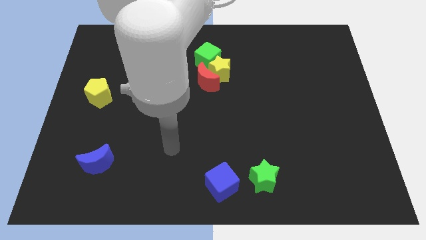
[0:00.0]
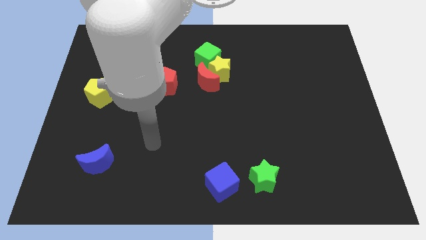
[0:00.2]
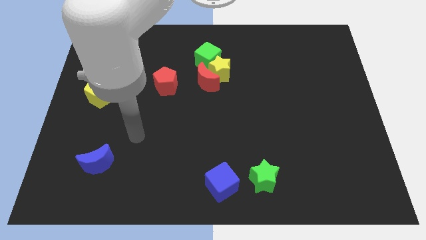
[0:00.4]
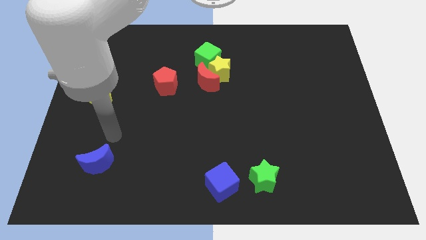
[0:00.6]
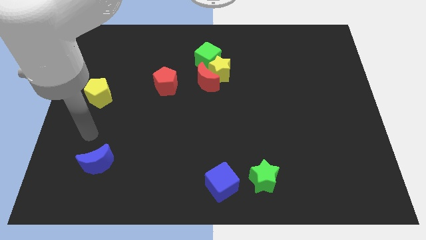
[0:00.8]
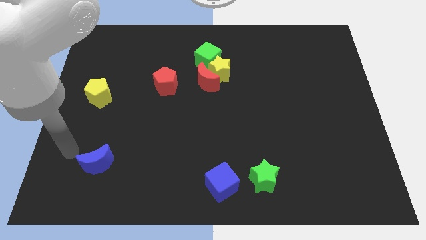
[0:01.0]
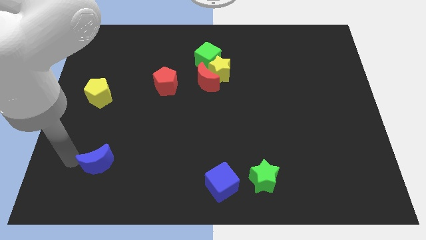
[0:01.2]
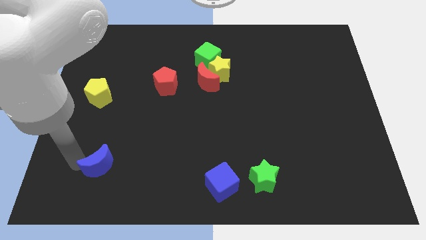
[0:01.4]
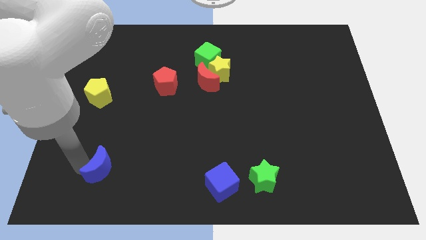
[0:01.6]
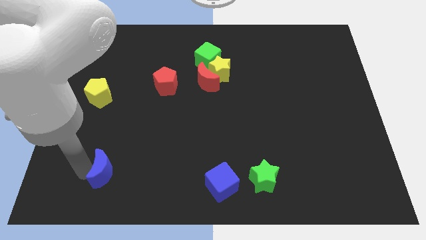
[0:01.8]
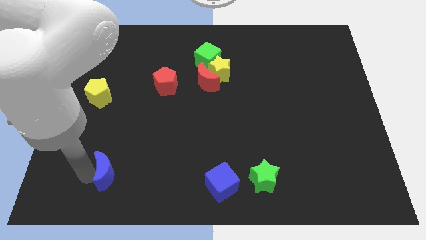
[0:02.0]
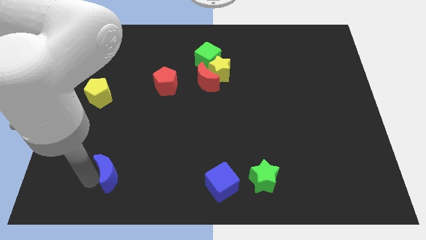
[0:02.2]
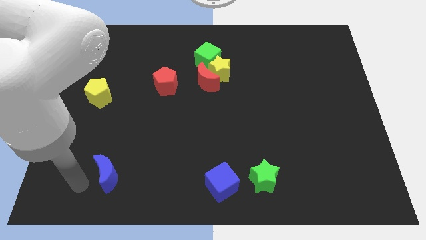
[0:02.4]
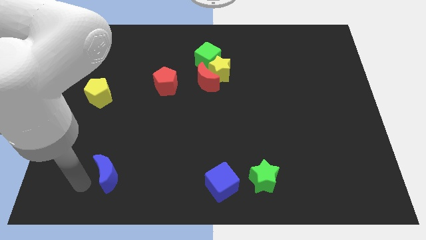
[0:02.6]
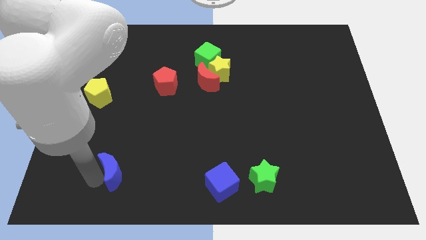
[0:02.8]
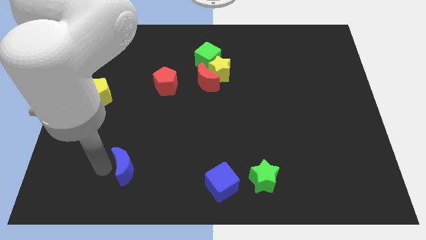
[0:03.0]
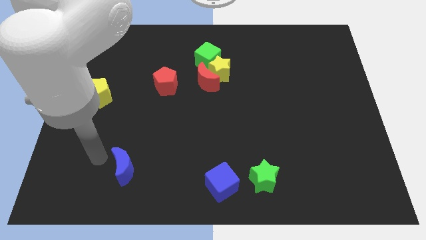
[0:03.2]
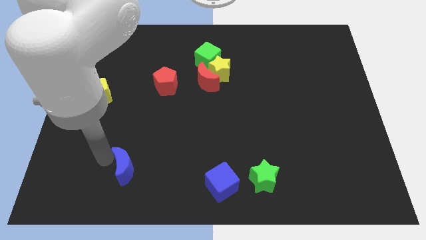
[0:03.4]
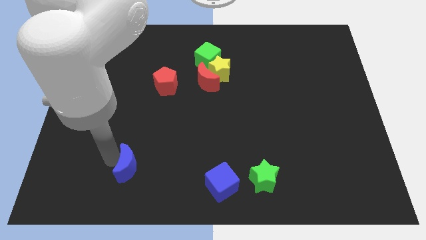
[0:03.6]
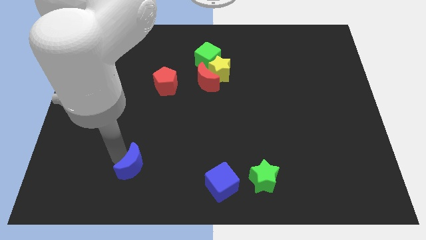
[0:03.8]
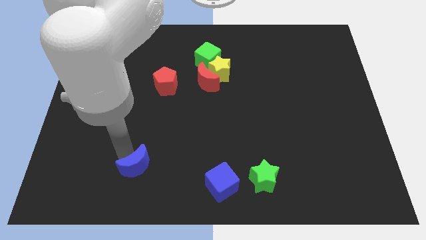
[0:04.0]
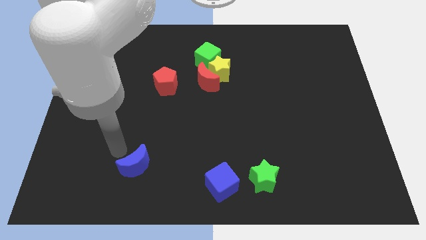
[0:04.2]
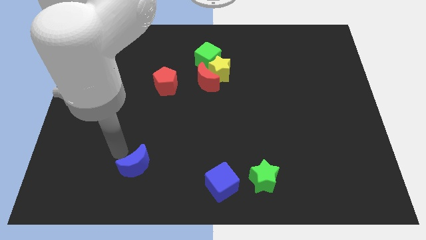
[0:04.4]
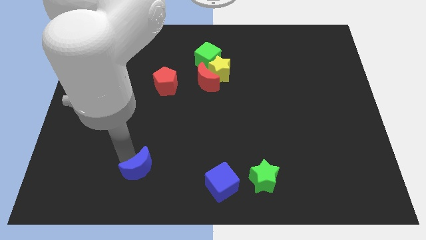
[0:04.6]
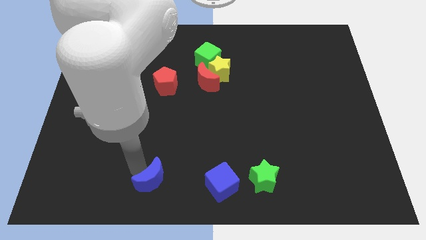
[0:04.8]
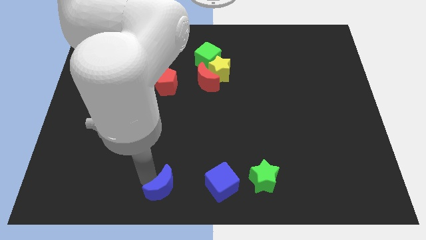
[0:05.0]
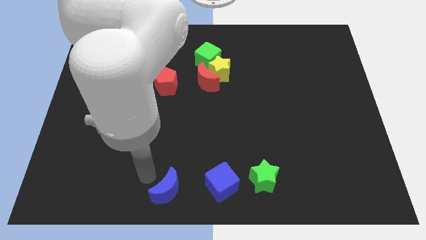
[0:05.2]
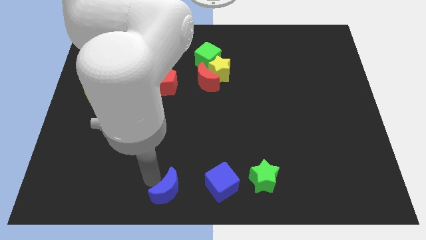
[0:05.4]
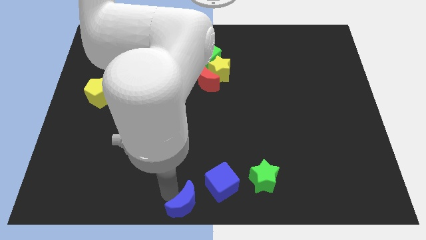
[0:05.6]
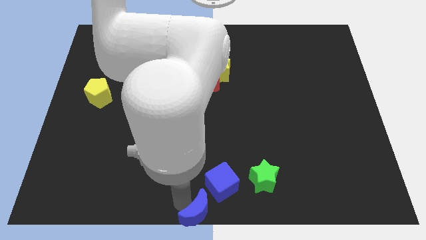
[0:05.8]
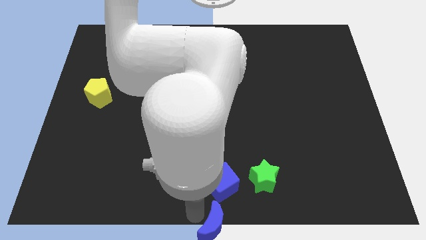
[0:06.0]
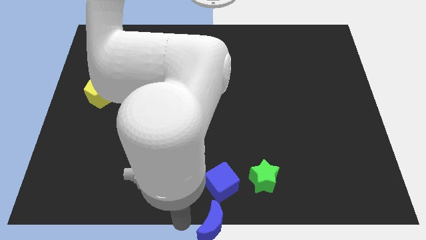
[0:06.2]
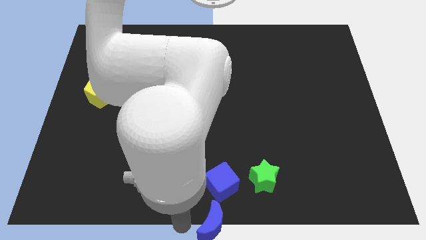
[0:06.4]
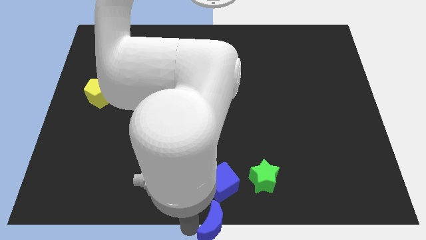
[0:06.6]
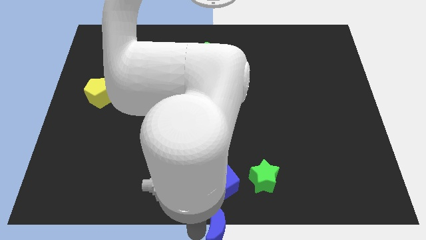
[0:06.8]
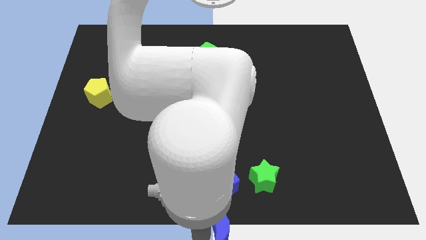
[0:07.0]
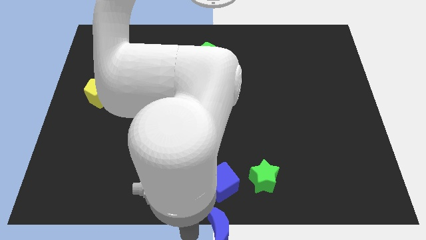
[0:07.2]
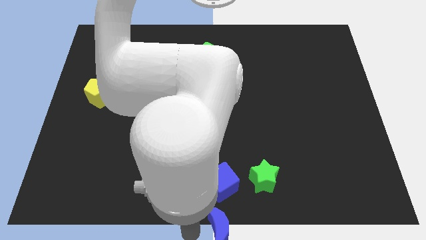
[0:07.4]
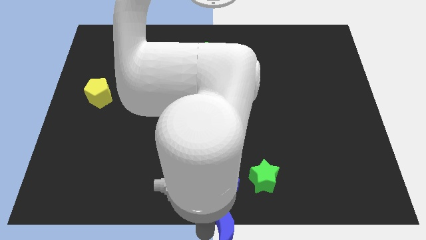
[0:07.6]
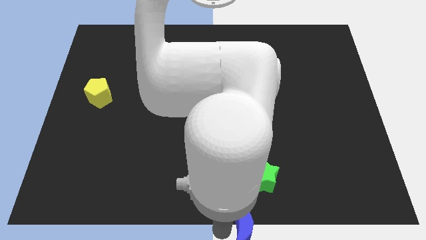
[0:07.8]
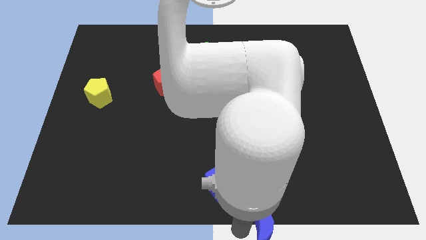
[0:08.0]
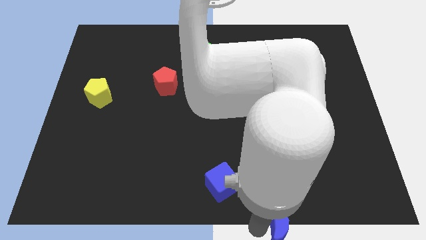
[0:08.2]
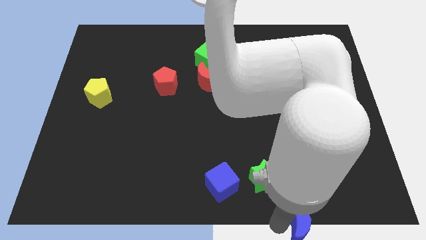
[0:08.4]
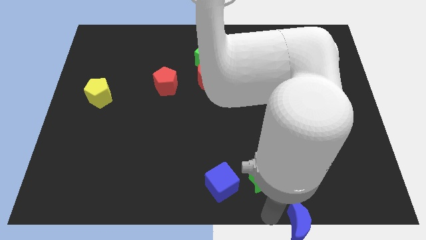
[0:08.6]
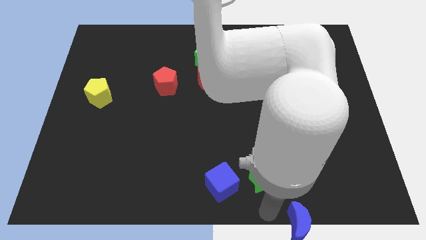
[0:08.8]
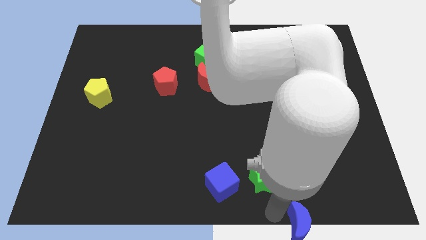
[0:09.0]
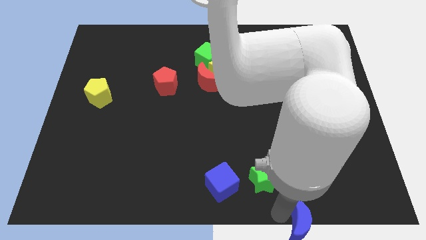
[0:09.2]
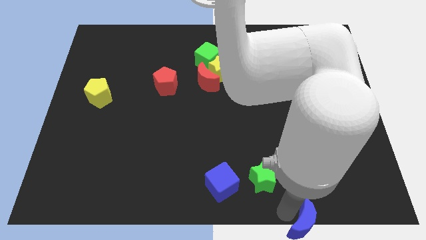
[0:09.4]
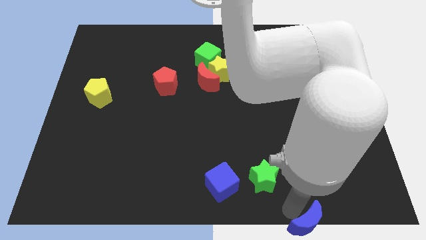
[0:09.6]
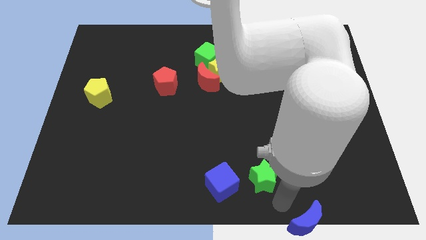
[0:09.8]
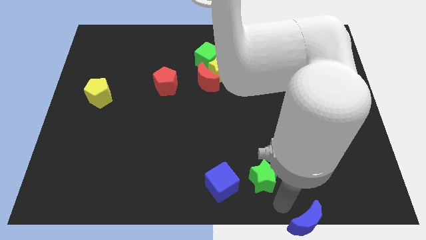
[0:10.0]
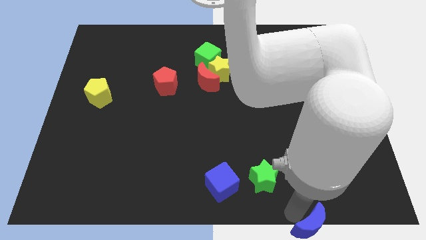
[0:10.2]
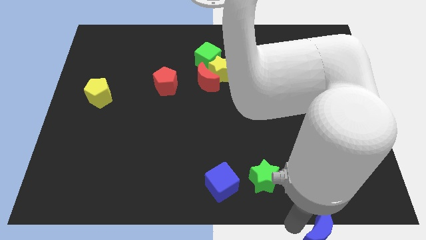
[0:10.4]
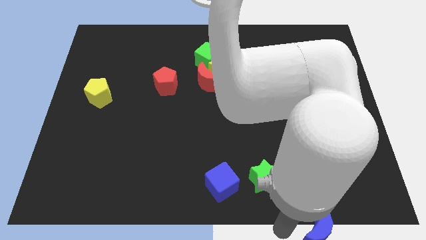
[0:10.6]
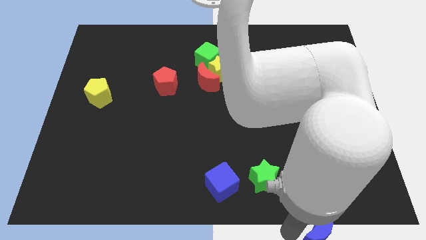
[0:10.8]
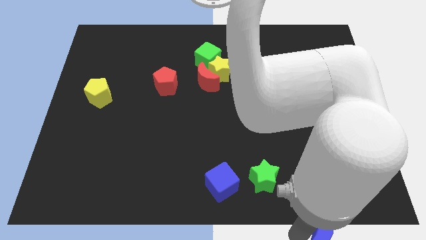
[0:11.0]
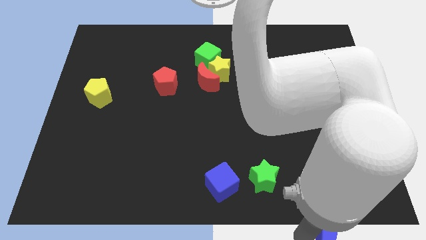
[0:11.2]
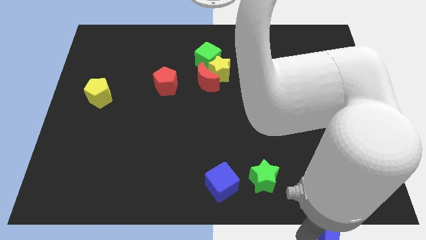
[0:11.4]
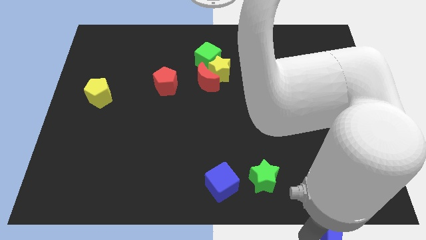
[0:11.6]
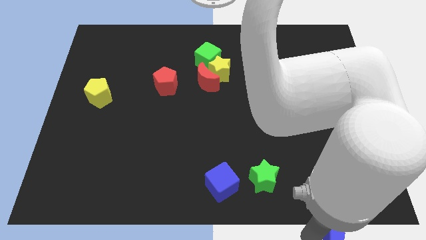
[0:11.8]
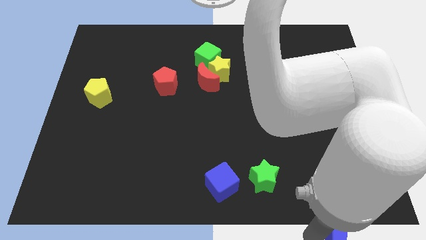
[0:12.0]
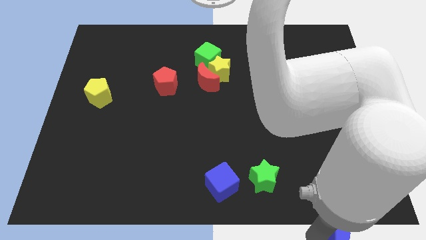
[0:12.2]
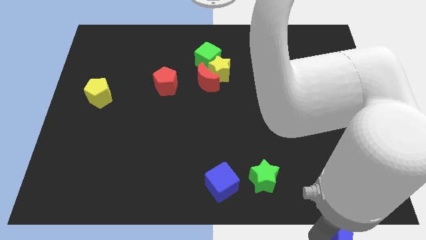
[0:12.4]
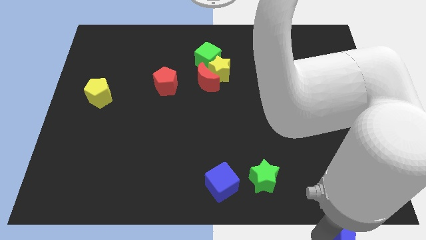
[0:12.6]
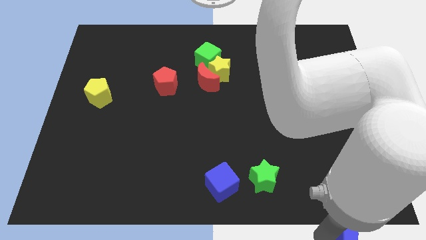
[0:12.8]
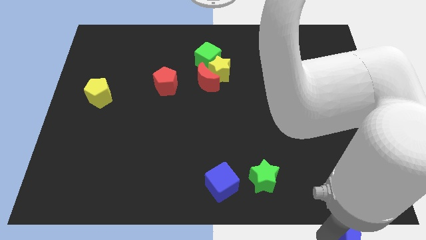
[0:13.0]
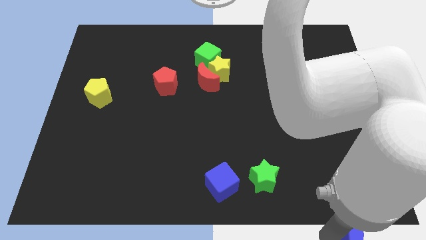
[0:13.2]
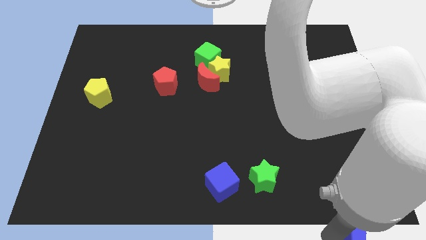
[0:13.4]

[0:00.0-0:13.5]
push the blue moon to the bottom right

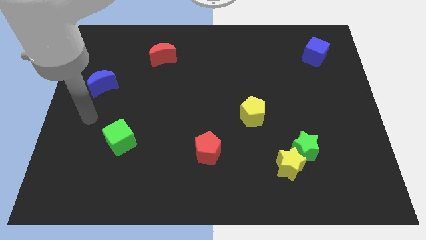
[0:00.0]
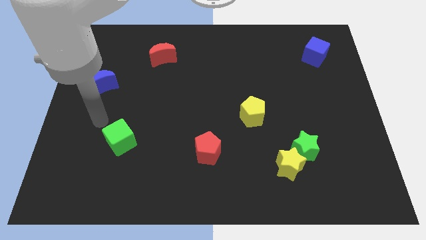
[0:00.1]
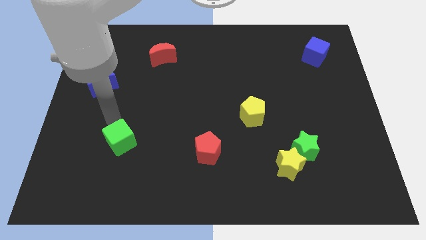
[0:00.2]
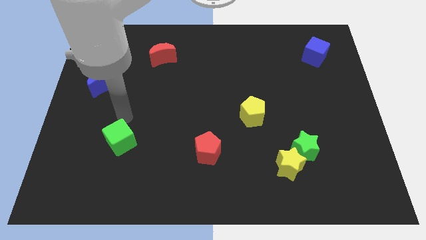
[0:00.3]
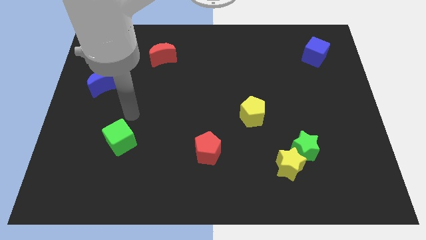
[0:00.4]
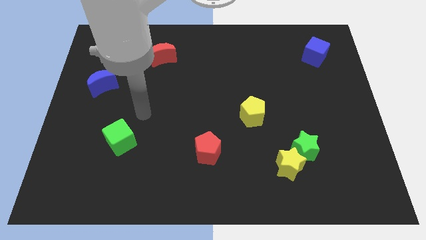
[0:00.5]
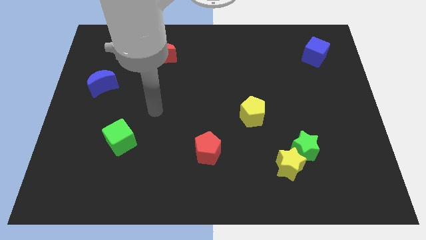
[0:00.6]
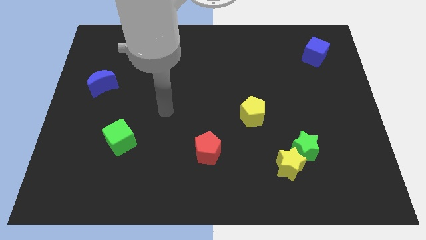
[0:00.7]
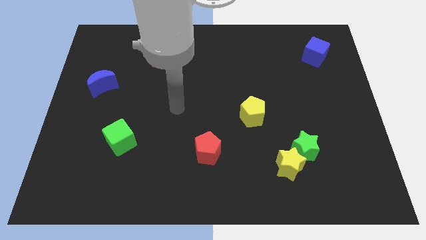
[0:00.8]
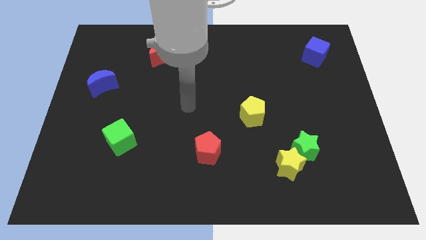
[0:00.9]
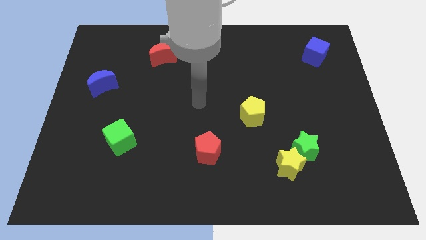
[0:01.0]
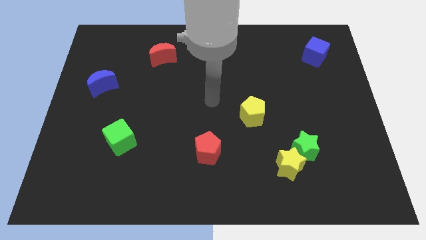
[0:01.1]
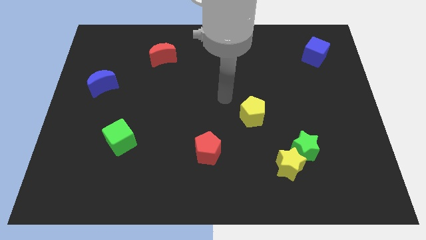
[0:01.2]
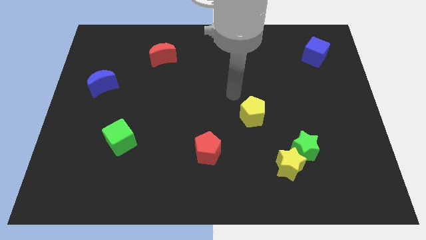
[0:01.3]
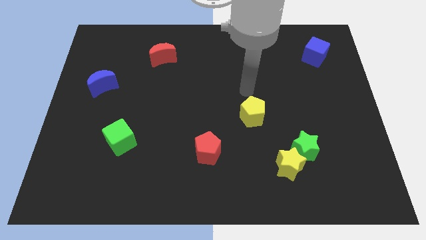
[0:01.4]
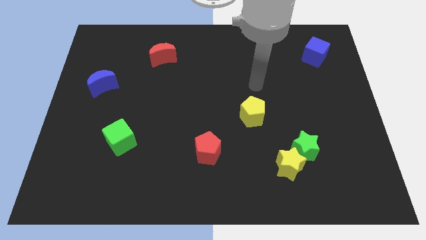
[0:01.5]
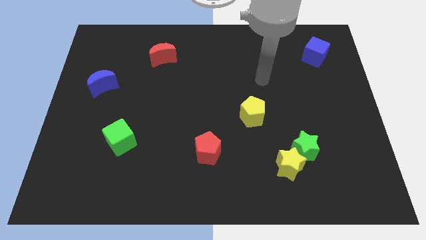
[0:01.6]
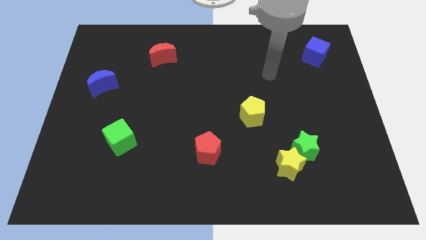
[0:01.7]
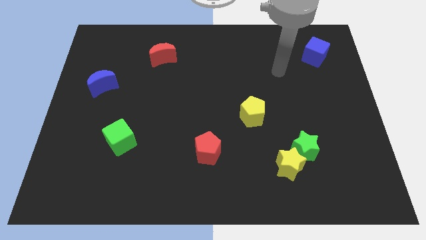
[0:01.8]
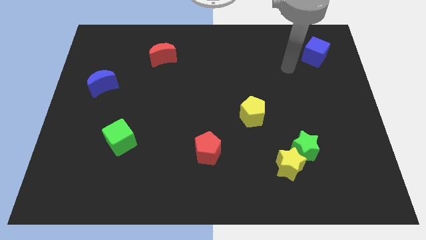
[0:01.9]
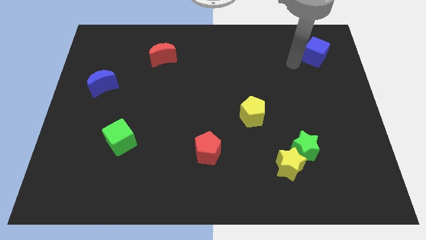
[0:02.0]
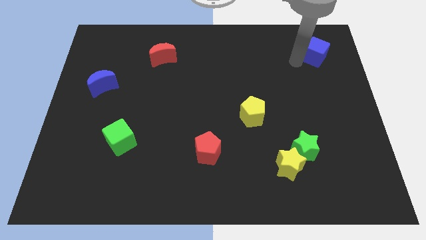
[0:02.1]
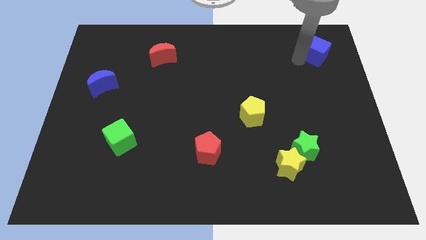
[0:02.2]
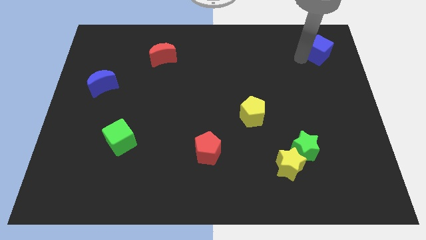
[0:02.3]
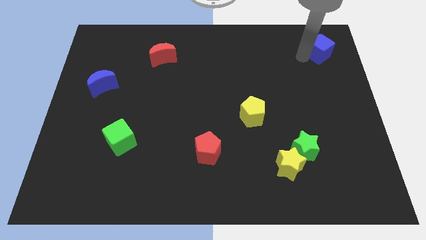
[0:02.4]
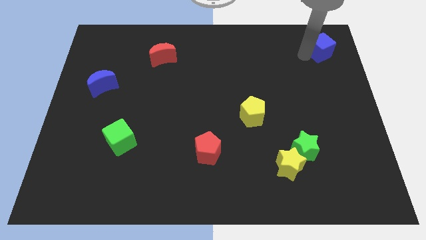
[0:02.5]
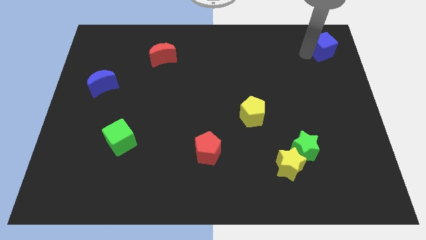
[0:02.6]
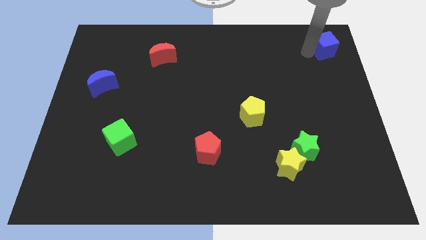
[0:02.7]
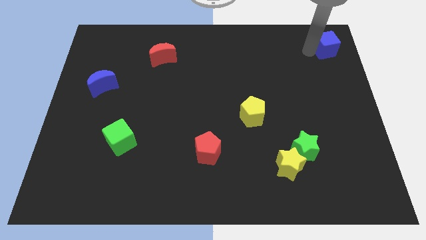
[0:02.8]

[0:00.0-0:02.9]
slide the blue cube to the top right corner
